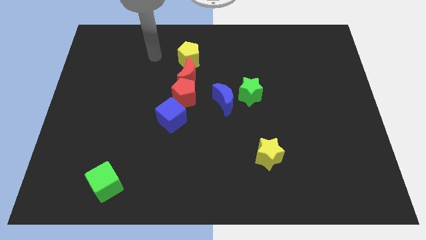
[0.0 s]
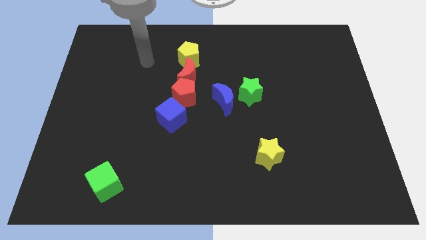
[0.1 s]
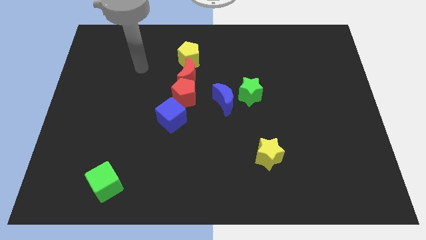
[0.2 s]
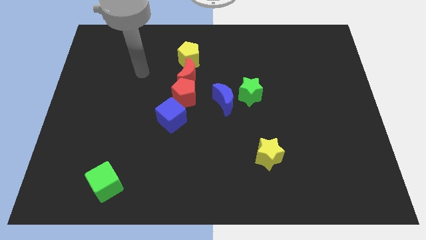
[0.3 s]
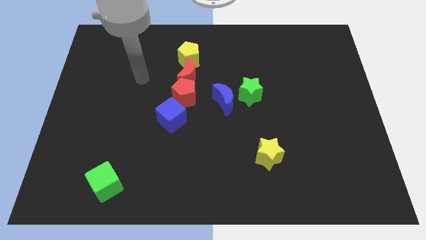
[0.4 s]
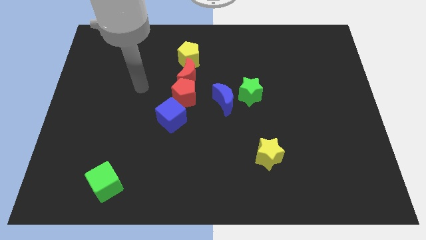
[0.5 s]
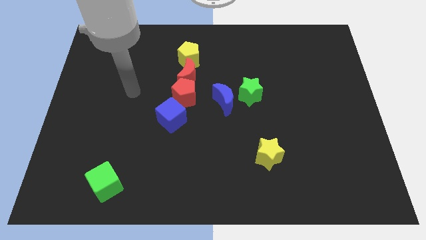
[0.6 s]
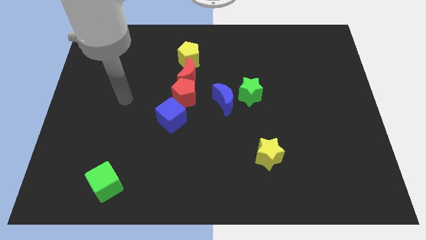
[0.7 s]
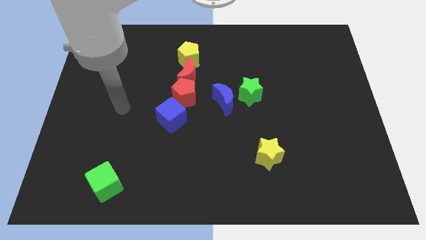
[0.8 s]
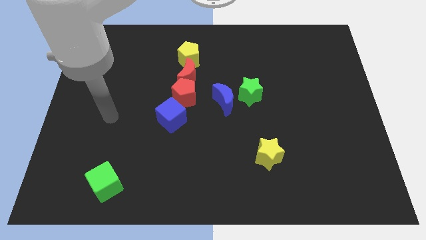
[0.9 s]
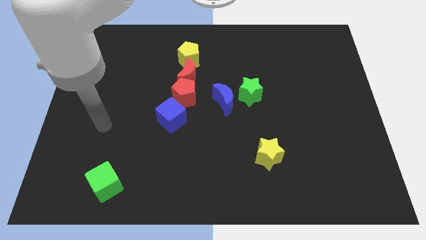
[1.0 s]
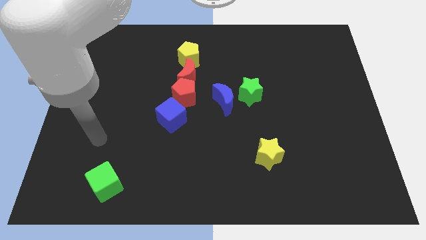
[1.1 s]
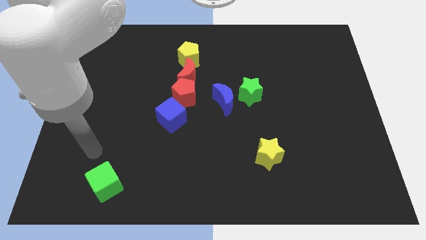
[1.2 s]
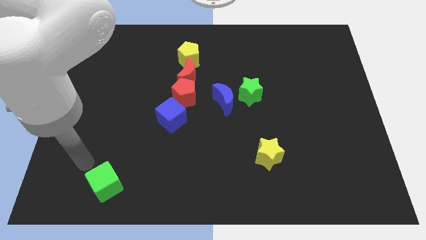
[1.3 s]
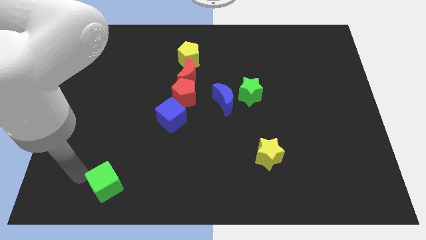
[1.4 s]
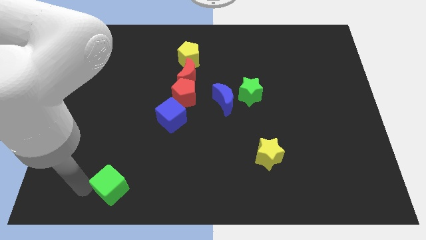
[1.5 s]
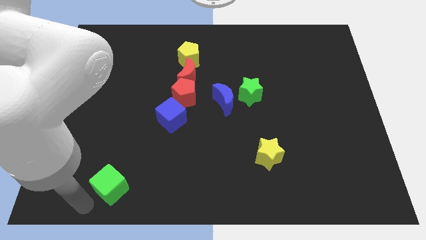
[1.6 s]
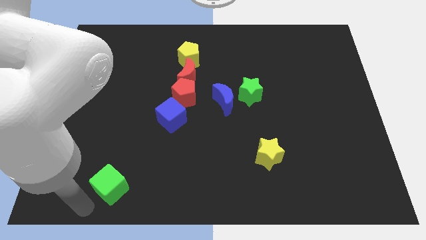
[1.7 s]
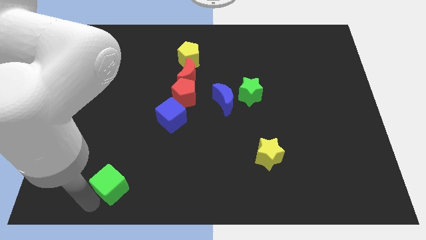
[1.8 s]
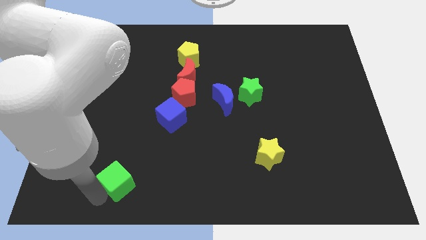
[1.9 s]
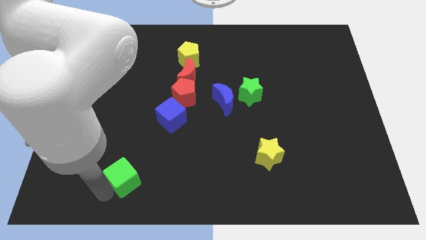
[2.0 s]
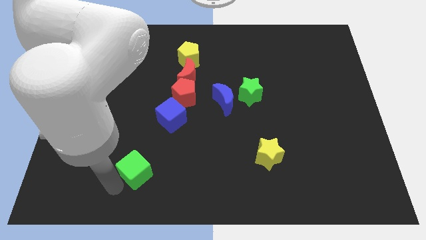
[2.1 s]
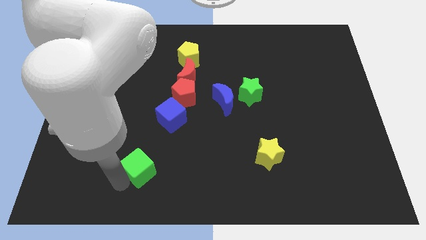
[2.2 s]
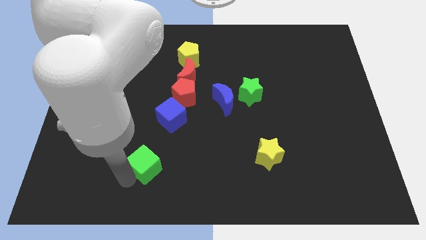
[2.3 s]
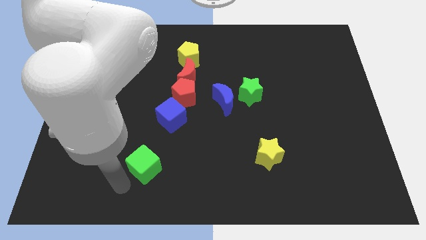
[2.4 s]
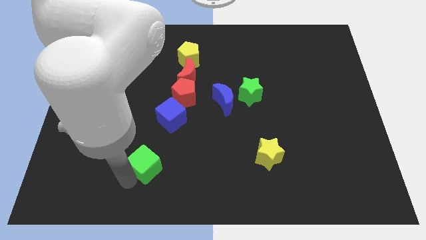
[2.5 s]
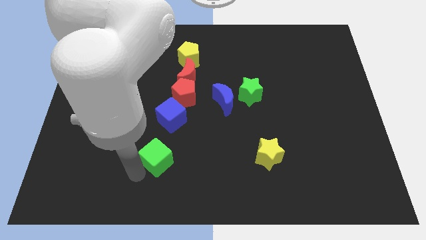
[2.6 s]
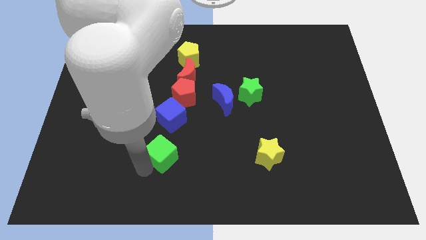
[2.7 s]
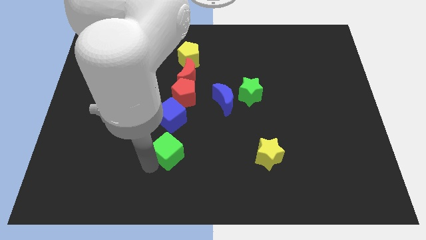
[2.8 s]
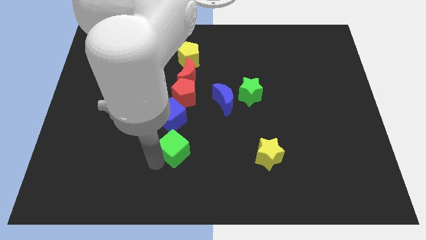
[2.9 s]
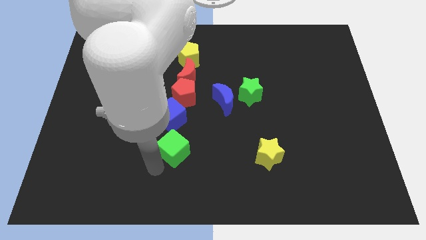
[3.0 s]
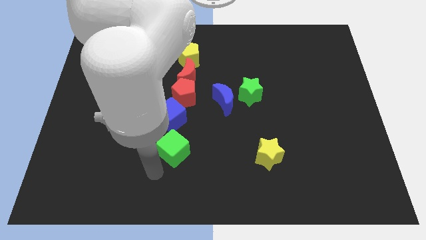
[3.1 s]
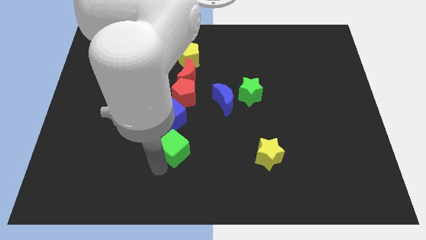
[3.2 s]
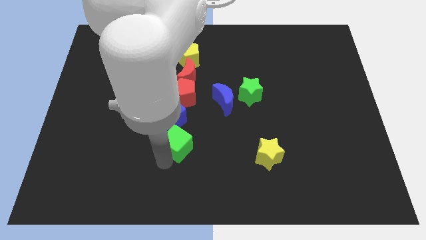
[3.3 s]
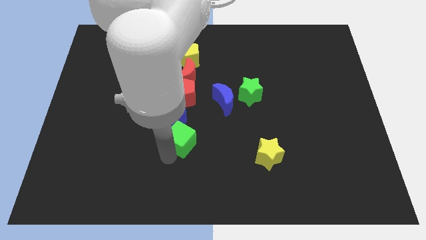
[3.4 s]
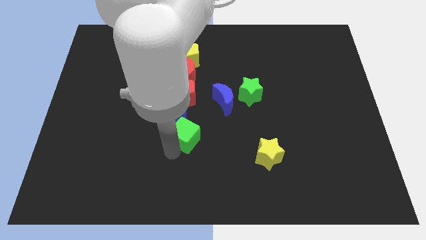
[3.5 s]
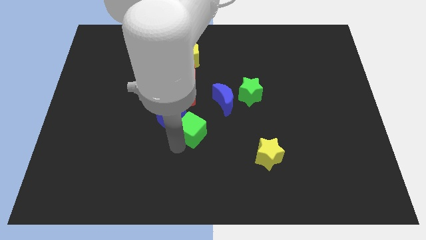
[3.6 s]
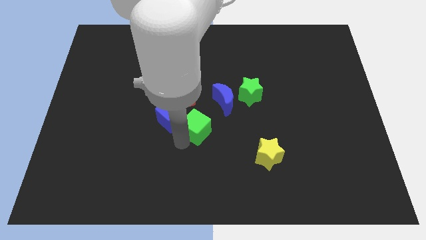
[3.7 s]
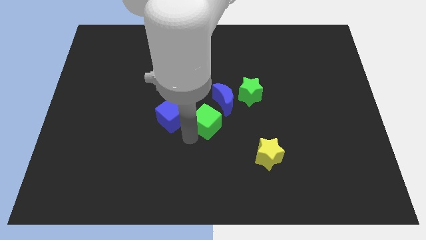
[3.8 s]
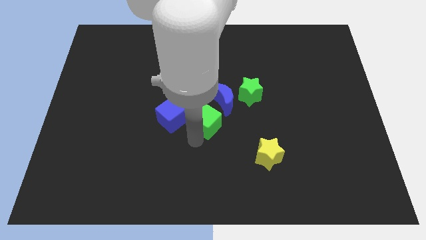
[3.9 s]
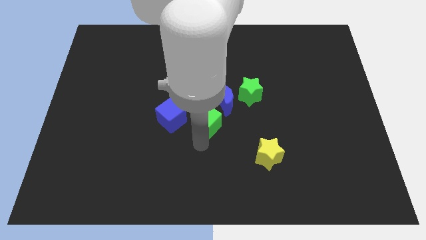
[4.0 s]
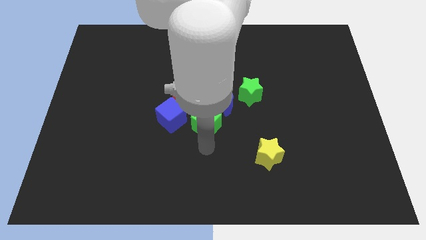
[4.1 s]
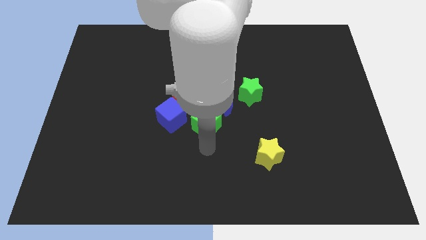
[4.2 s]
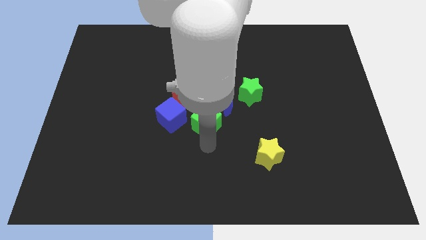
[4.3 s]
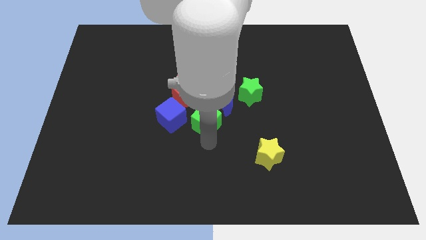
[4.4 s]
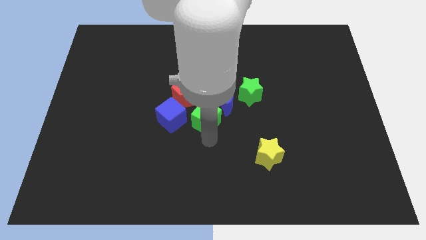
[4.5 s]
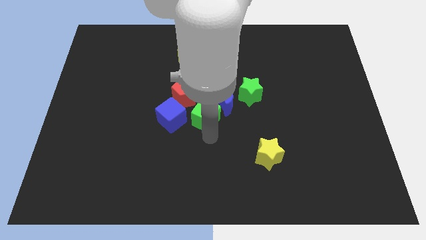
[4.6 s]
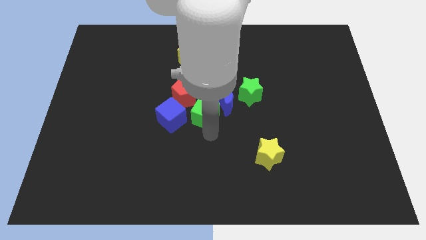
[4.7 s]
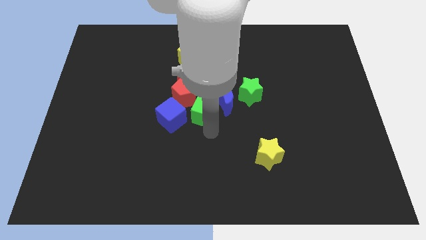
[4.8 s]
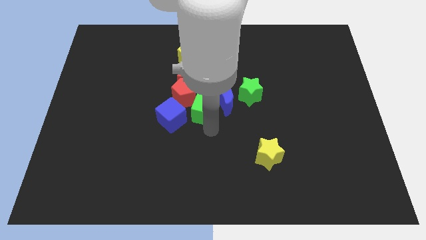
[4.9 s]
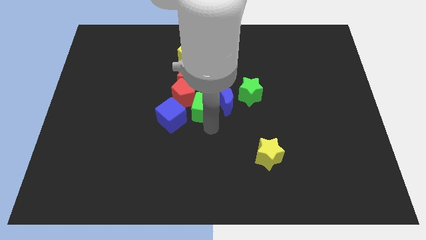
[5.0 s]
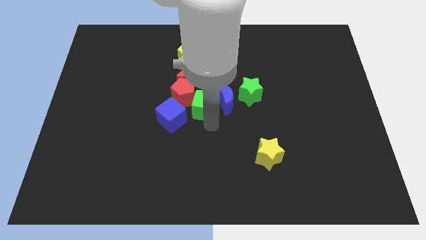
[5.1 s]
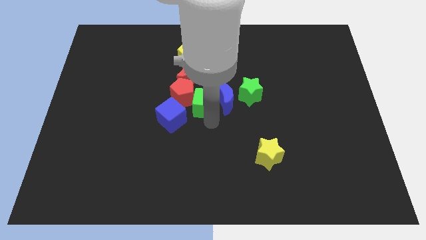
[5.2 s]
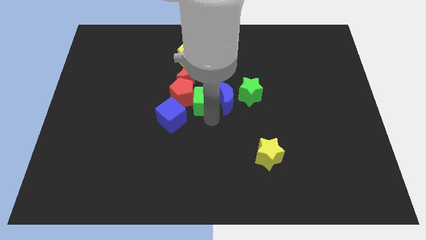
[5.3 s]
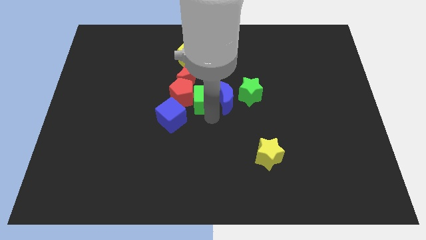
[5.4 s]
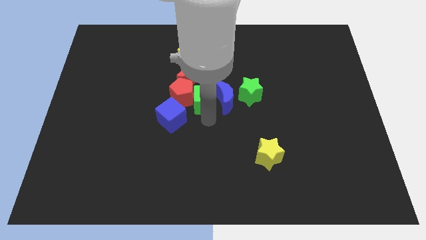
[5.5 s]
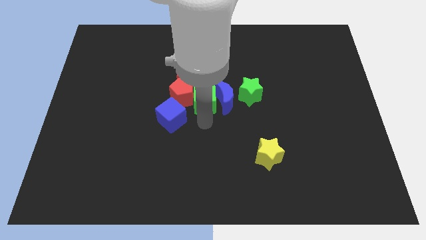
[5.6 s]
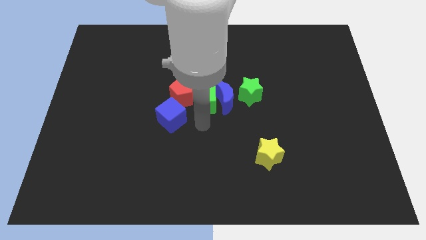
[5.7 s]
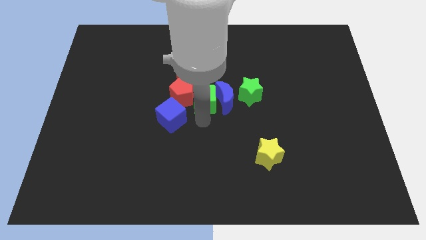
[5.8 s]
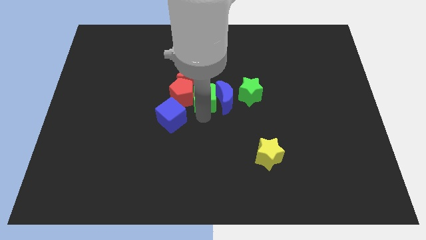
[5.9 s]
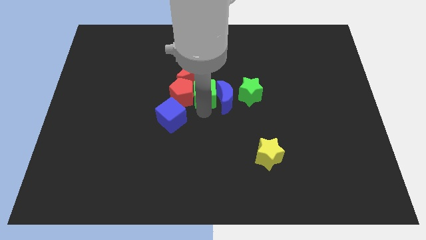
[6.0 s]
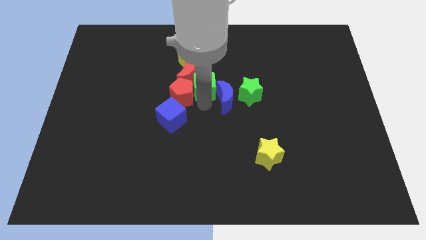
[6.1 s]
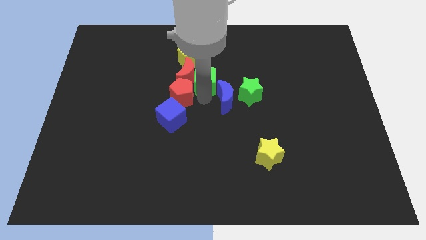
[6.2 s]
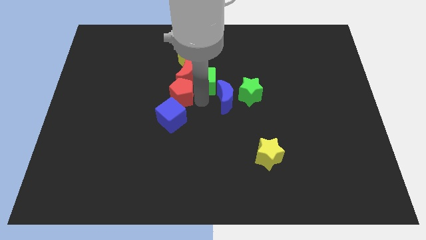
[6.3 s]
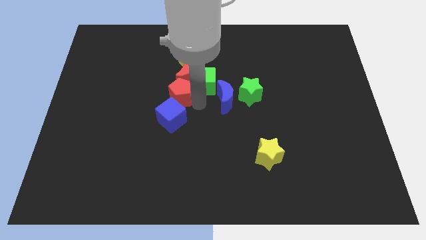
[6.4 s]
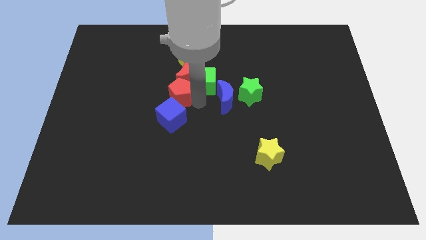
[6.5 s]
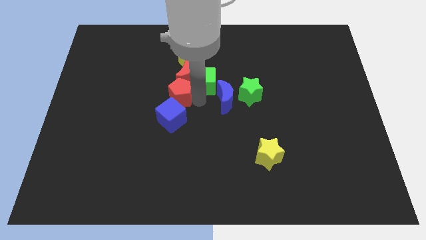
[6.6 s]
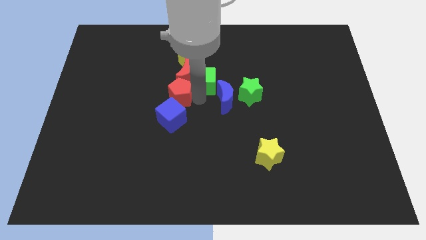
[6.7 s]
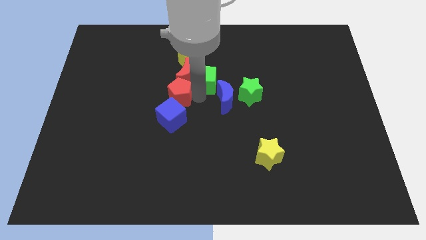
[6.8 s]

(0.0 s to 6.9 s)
slide the green cube diagonally up and to the right of the red moon
